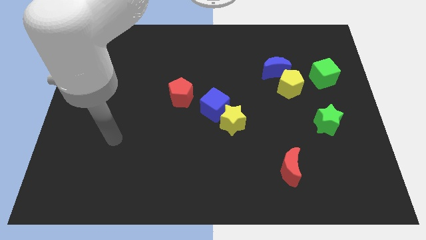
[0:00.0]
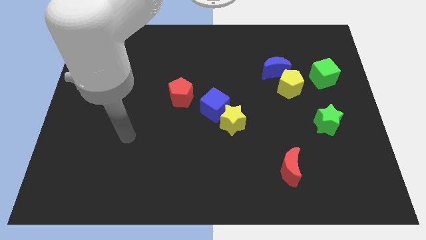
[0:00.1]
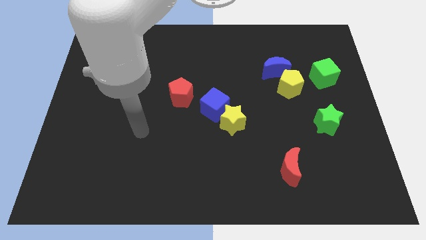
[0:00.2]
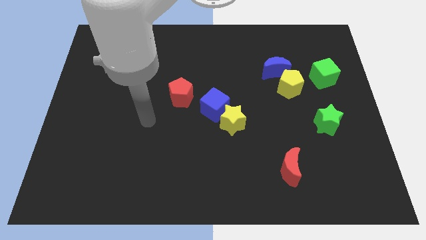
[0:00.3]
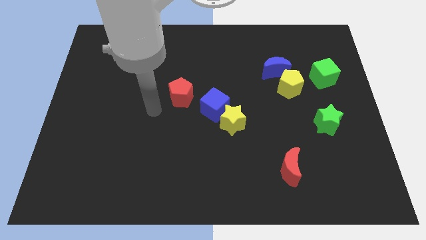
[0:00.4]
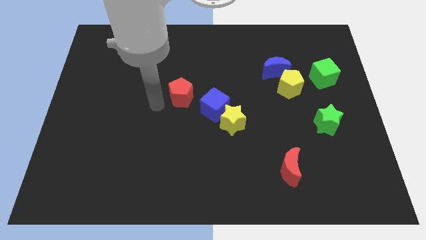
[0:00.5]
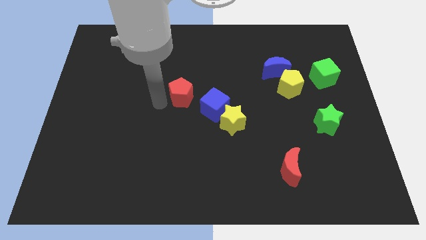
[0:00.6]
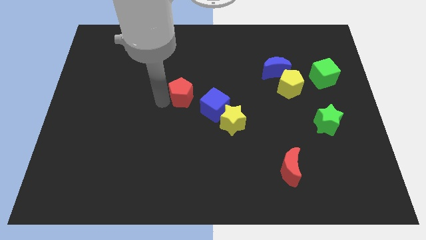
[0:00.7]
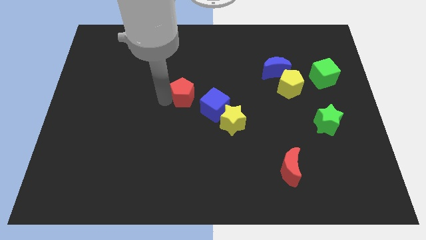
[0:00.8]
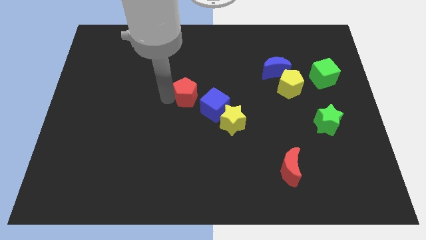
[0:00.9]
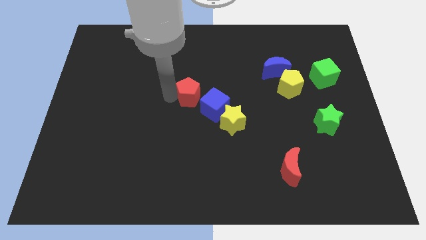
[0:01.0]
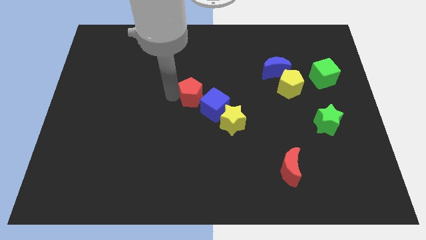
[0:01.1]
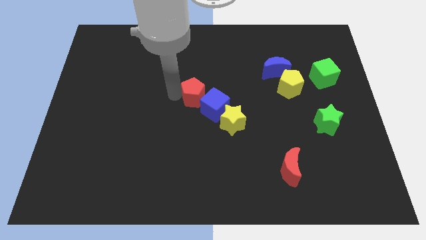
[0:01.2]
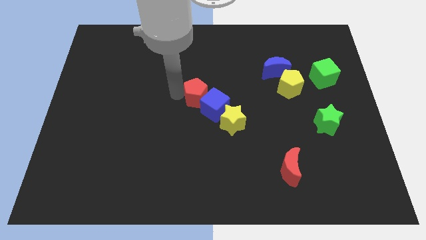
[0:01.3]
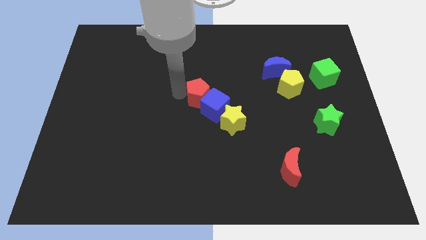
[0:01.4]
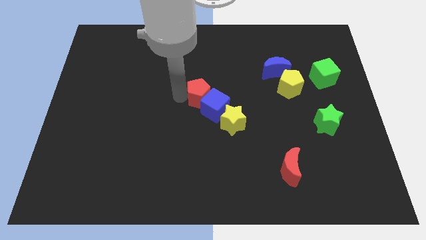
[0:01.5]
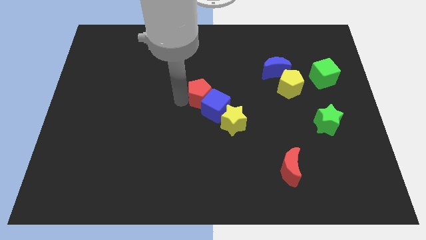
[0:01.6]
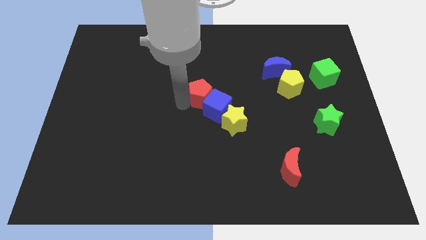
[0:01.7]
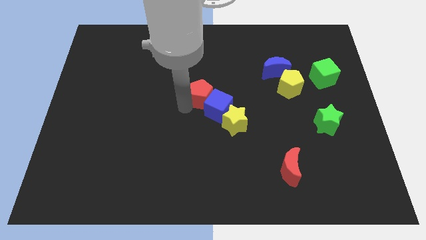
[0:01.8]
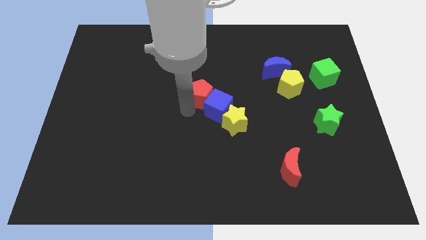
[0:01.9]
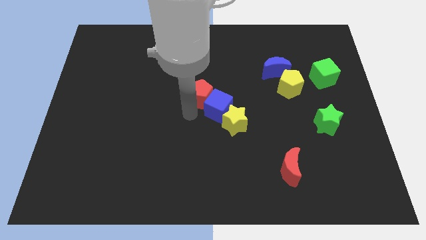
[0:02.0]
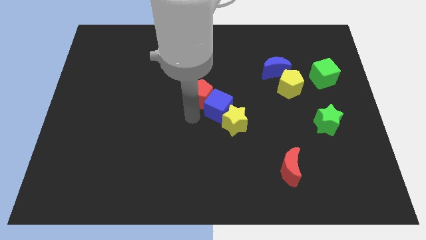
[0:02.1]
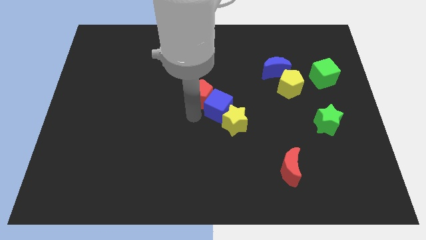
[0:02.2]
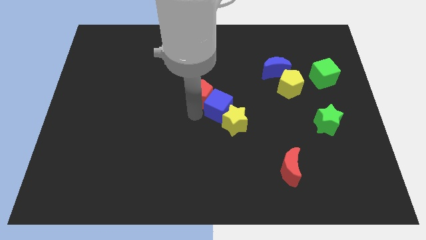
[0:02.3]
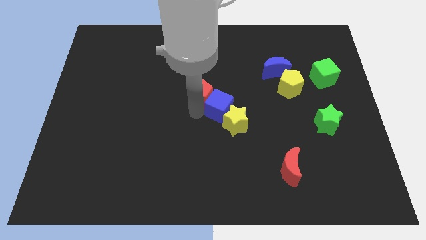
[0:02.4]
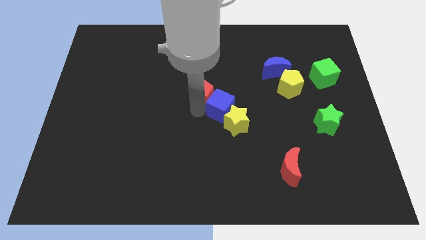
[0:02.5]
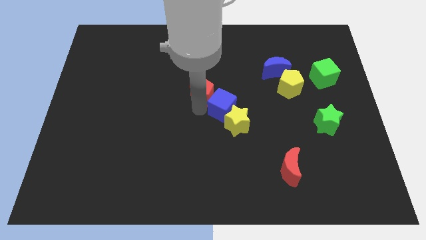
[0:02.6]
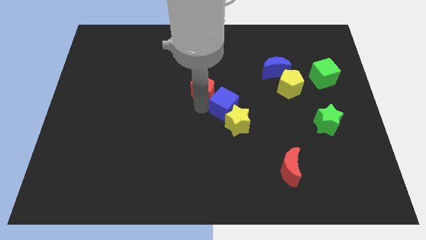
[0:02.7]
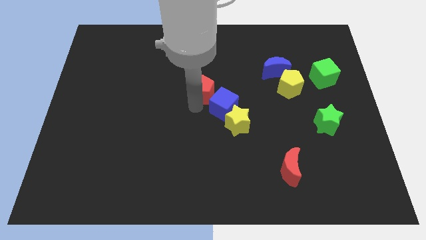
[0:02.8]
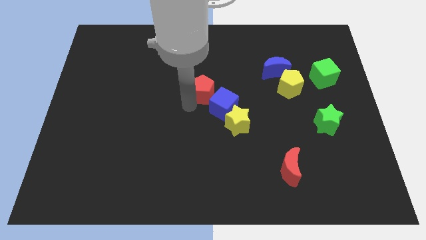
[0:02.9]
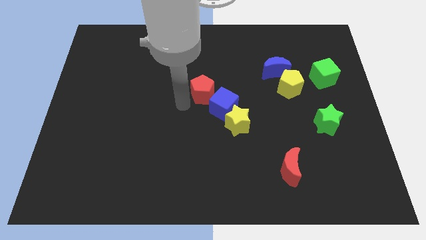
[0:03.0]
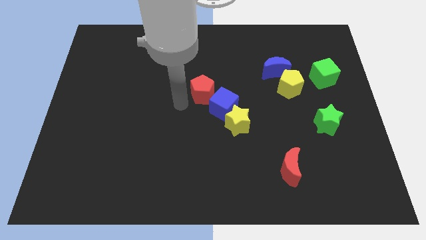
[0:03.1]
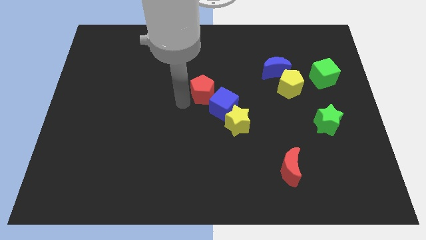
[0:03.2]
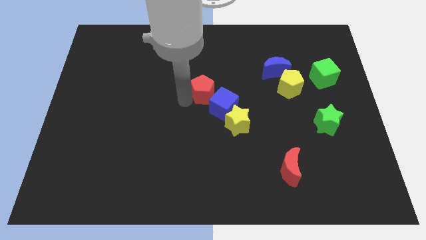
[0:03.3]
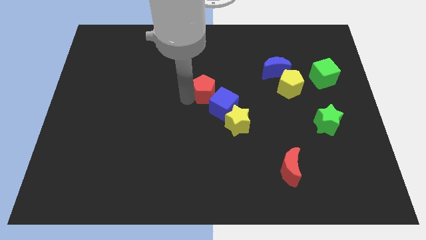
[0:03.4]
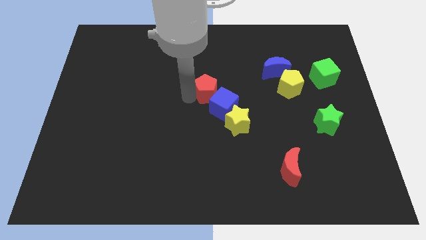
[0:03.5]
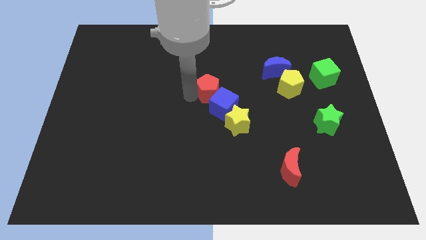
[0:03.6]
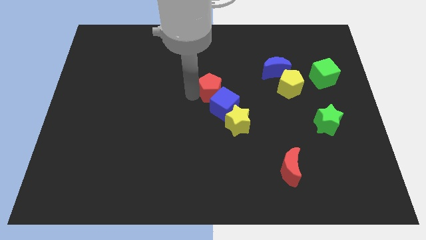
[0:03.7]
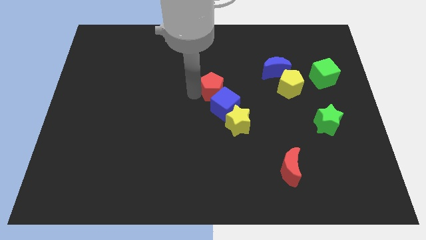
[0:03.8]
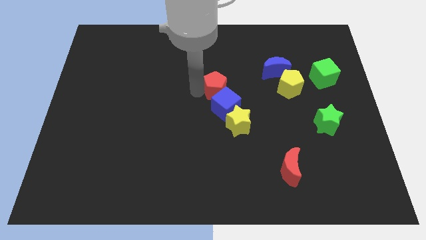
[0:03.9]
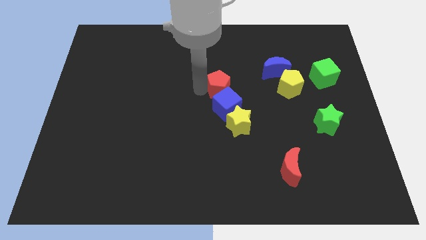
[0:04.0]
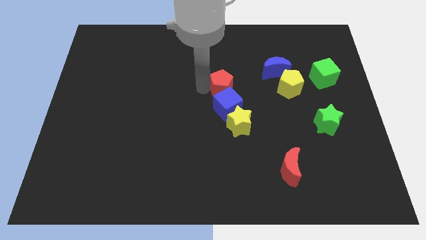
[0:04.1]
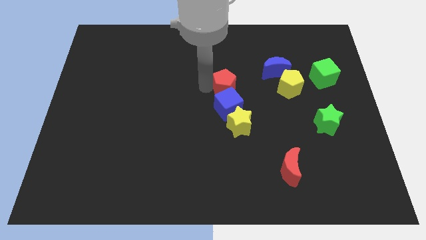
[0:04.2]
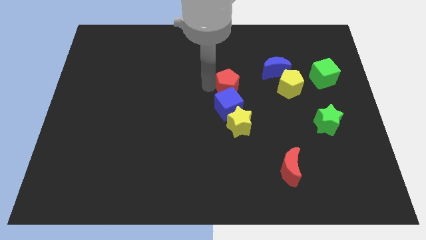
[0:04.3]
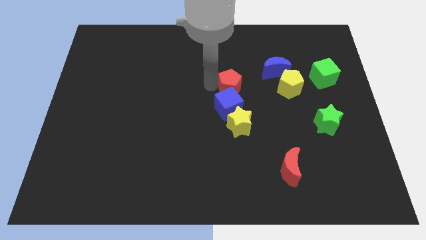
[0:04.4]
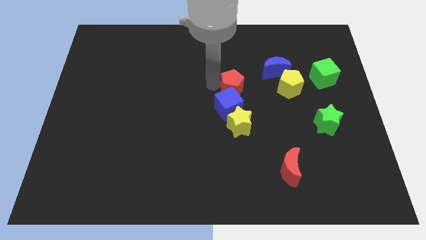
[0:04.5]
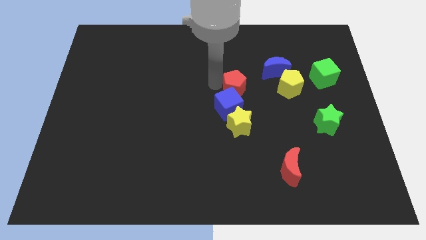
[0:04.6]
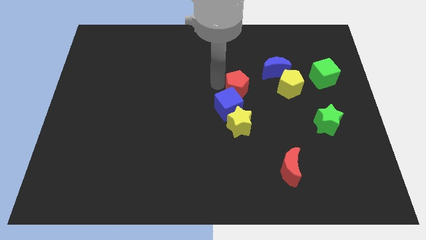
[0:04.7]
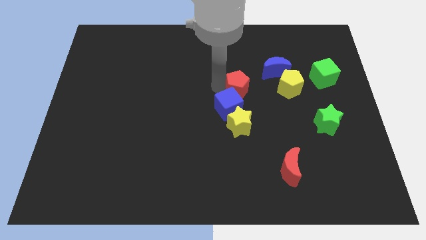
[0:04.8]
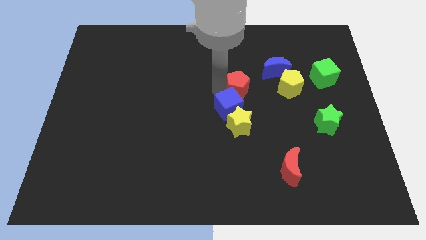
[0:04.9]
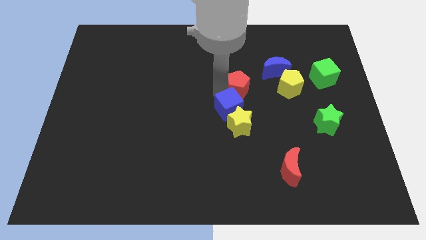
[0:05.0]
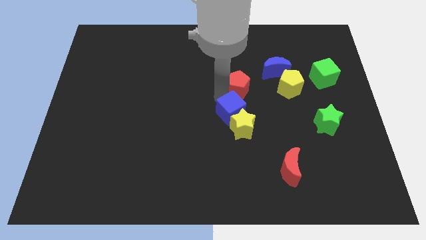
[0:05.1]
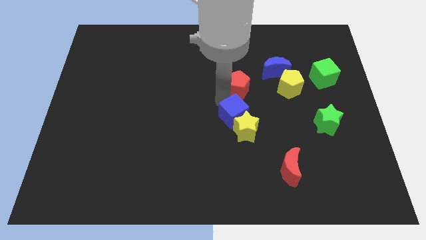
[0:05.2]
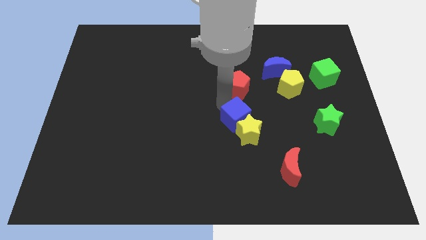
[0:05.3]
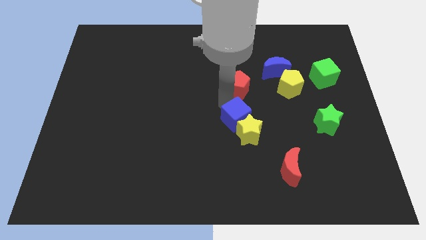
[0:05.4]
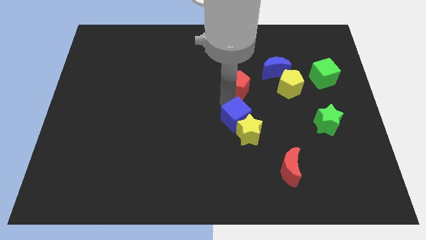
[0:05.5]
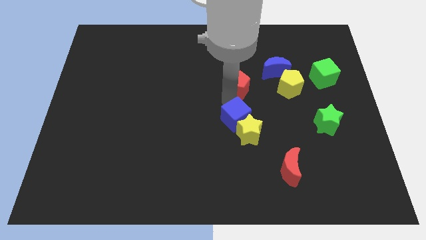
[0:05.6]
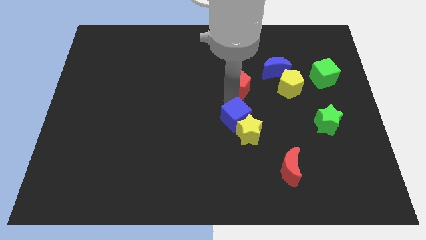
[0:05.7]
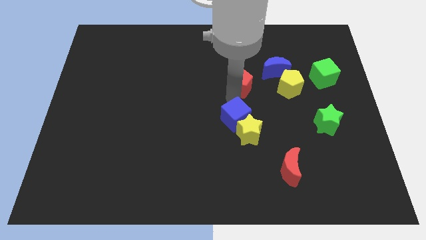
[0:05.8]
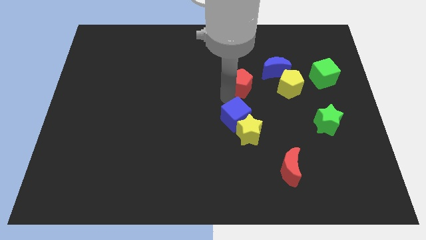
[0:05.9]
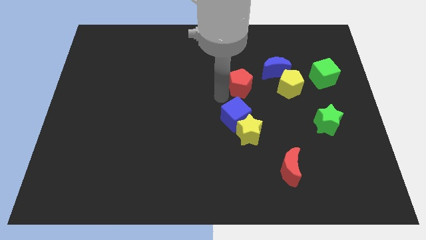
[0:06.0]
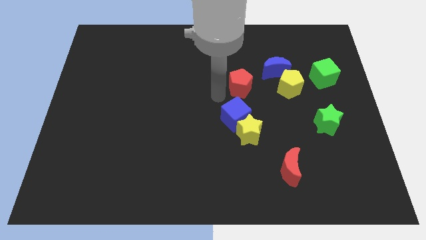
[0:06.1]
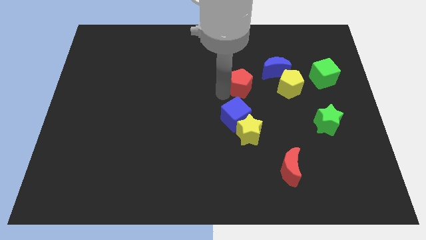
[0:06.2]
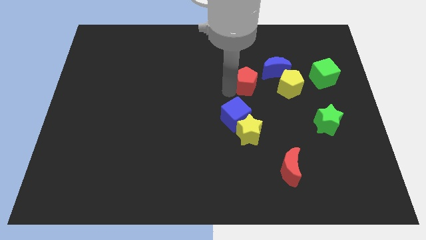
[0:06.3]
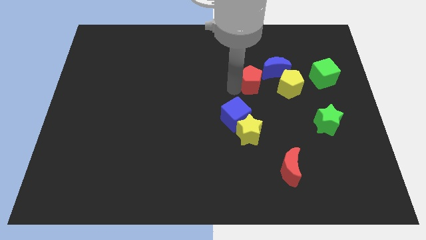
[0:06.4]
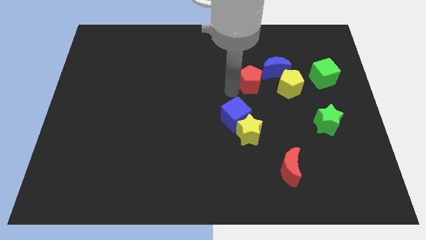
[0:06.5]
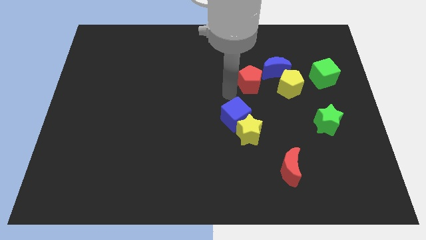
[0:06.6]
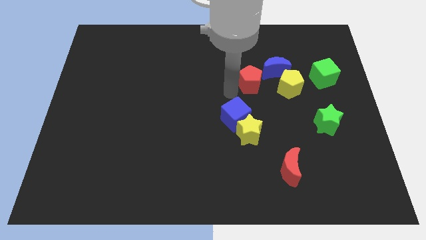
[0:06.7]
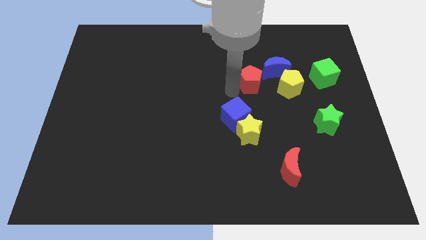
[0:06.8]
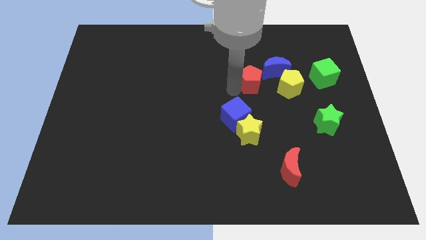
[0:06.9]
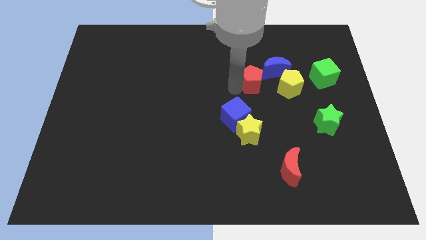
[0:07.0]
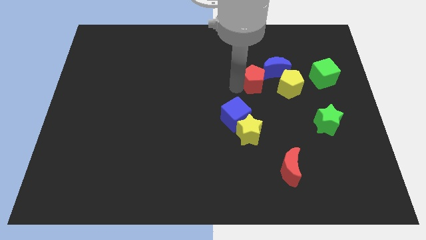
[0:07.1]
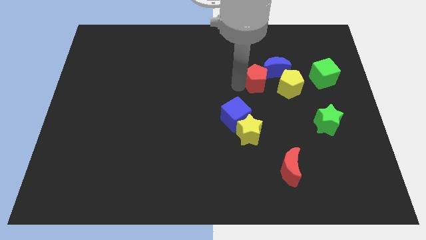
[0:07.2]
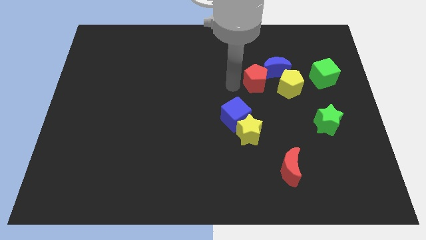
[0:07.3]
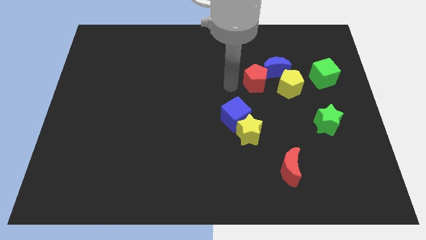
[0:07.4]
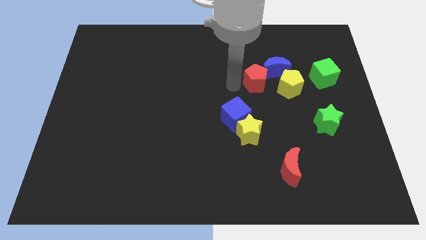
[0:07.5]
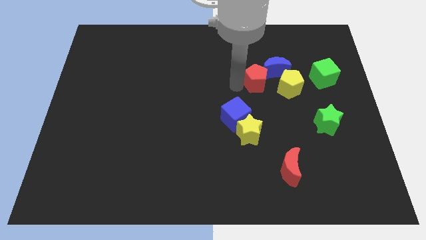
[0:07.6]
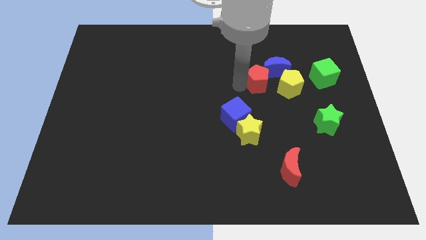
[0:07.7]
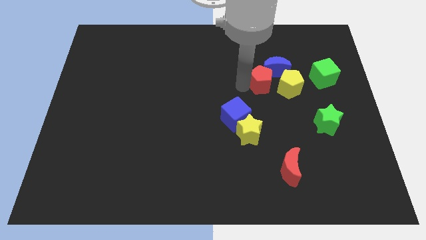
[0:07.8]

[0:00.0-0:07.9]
move the red pentagon left of the green cube
